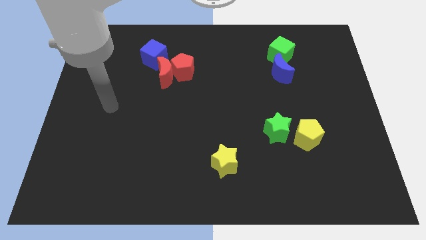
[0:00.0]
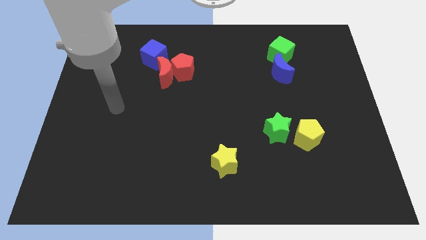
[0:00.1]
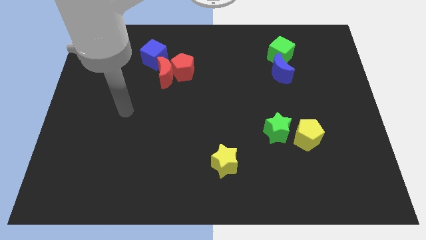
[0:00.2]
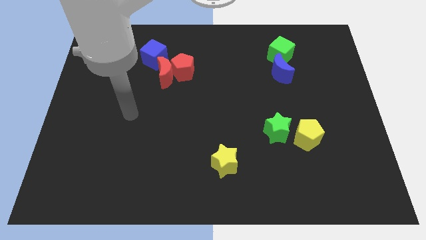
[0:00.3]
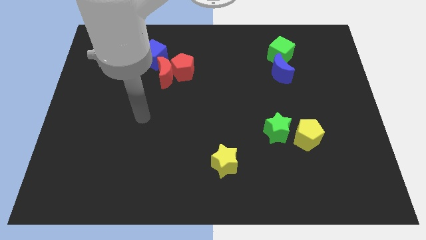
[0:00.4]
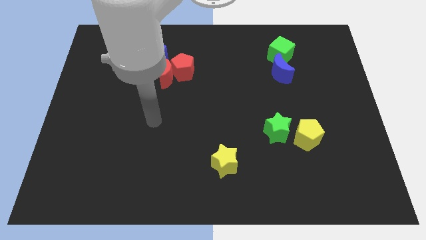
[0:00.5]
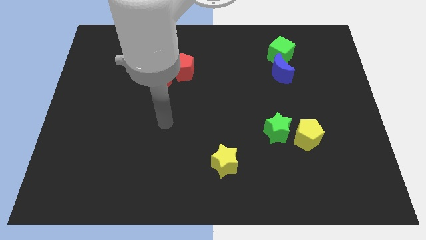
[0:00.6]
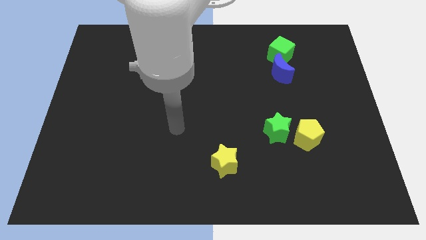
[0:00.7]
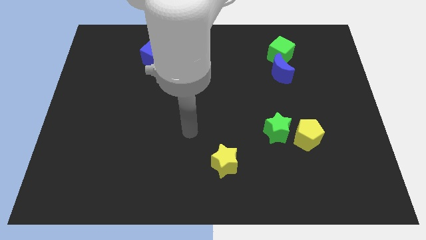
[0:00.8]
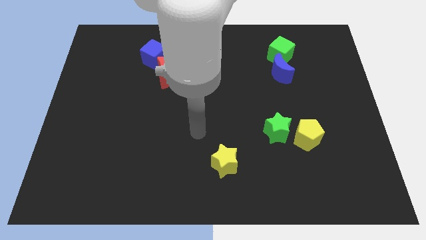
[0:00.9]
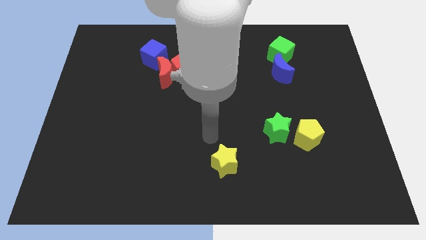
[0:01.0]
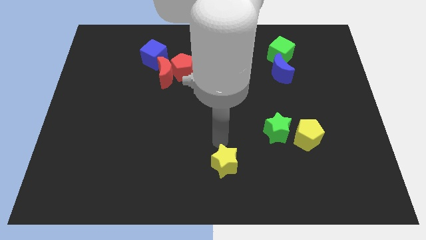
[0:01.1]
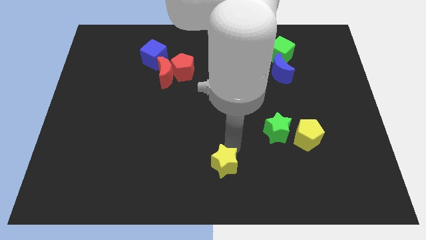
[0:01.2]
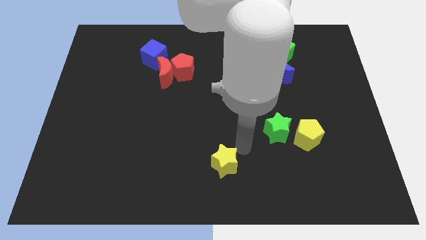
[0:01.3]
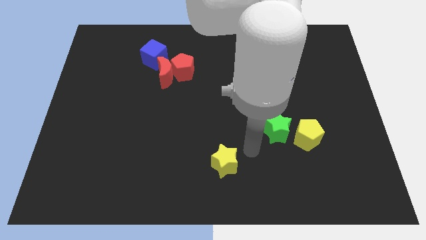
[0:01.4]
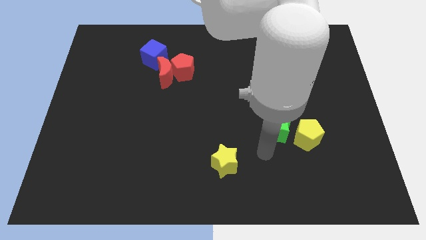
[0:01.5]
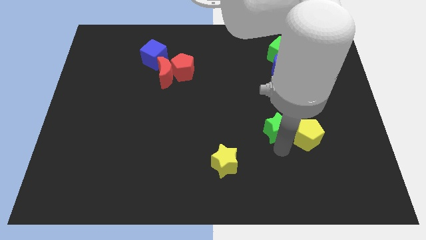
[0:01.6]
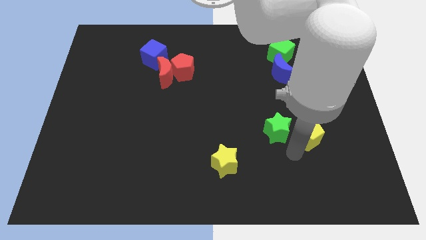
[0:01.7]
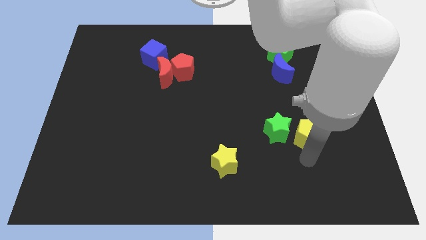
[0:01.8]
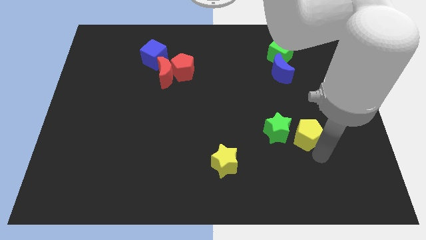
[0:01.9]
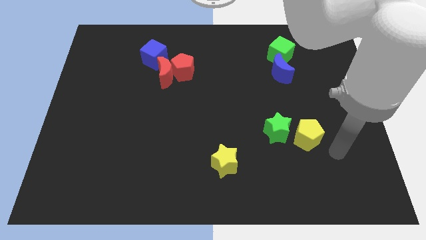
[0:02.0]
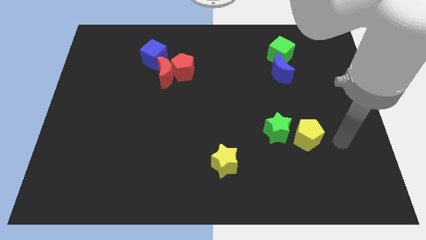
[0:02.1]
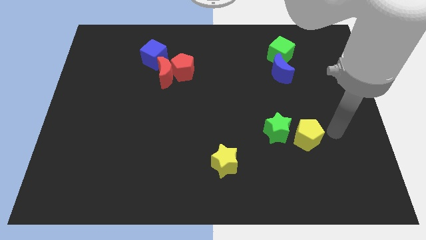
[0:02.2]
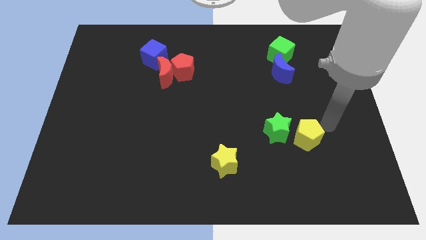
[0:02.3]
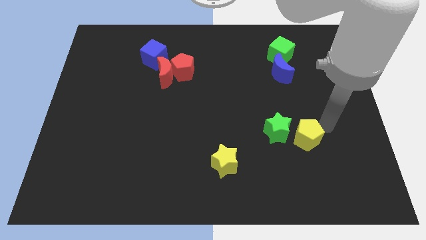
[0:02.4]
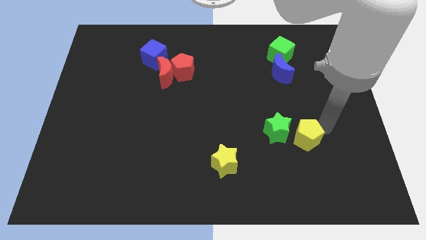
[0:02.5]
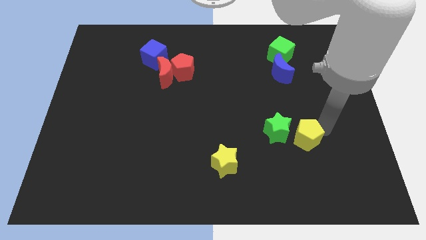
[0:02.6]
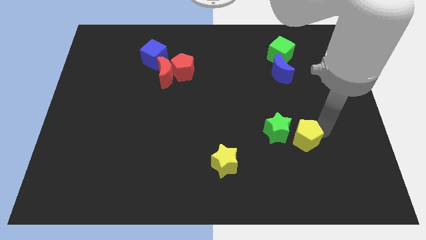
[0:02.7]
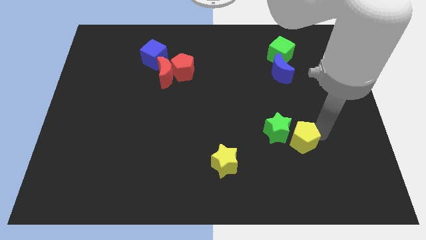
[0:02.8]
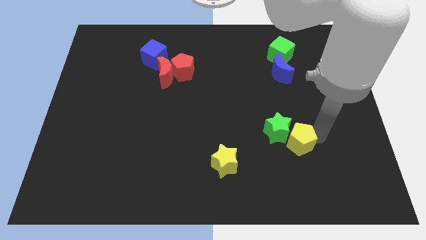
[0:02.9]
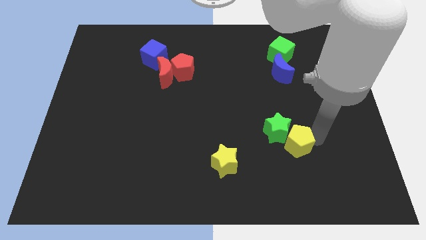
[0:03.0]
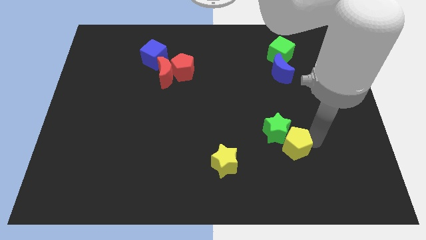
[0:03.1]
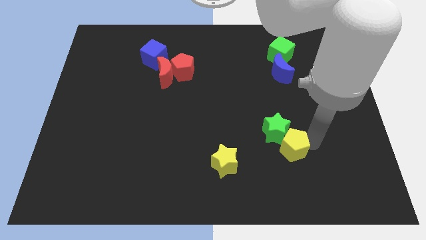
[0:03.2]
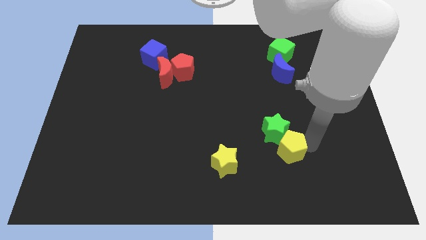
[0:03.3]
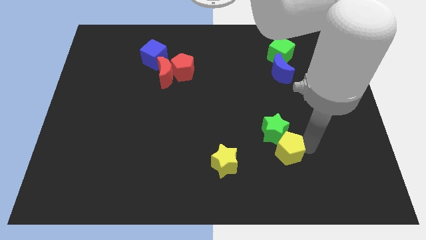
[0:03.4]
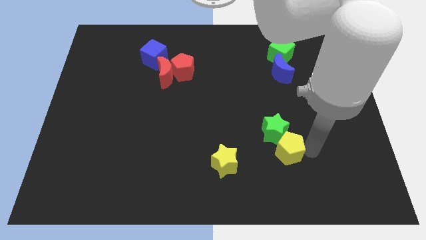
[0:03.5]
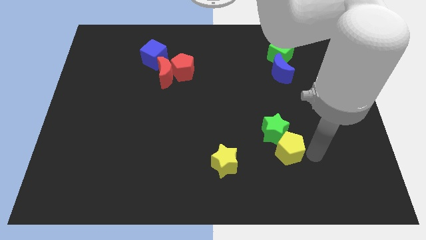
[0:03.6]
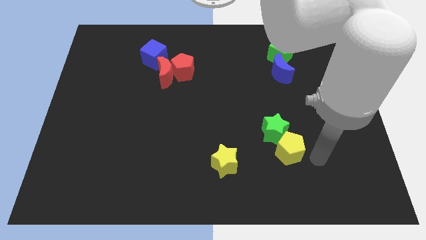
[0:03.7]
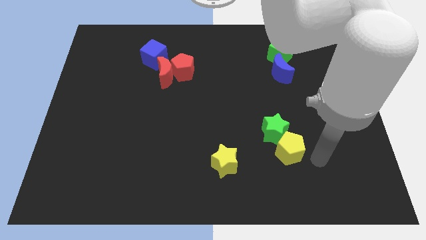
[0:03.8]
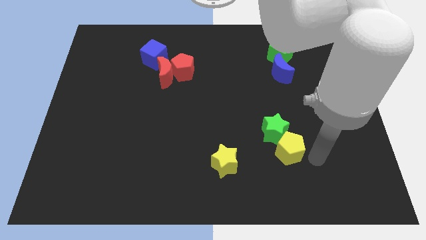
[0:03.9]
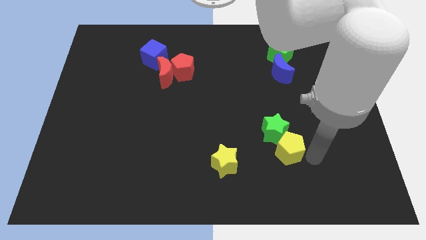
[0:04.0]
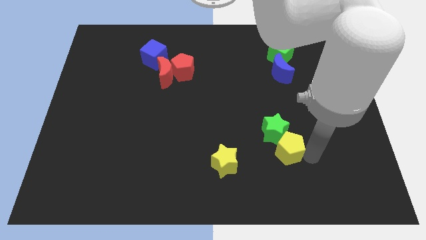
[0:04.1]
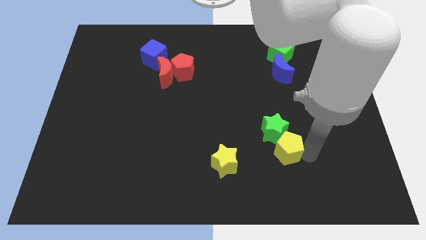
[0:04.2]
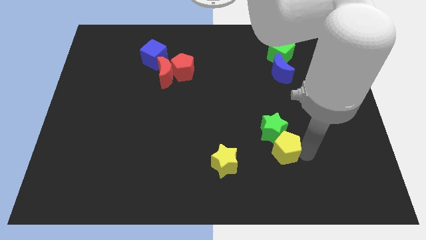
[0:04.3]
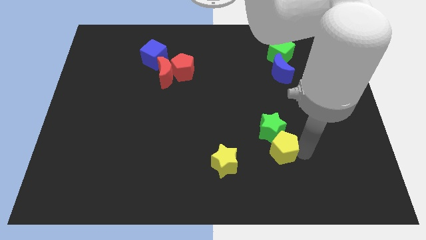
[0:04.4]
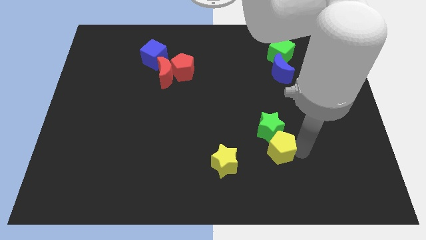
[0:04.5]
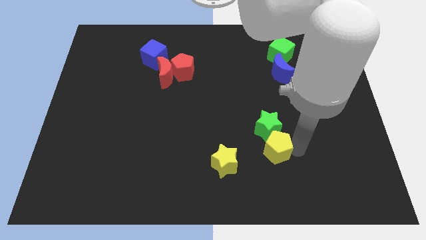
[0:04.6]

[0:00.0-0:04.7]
slide the yellow pentagon somewhat left

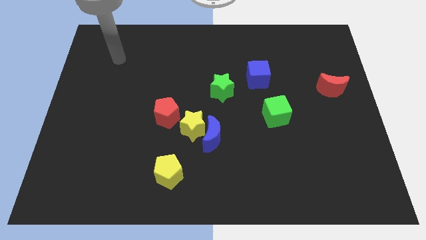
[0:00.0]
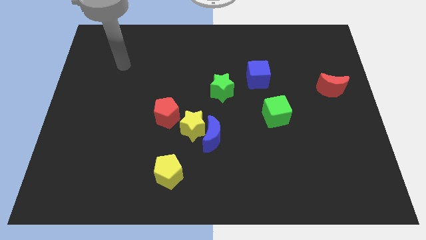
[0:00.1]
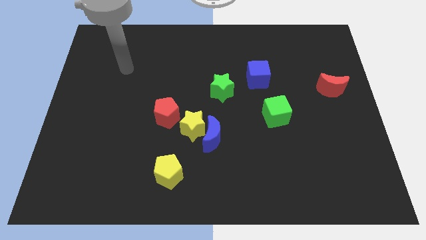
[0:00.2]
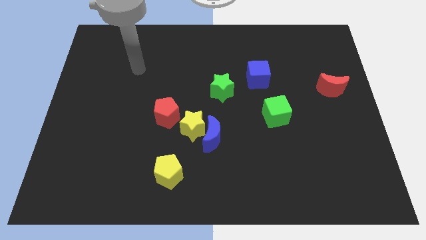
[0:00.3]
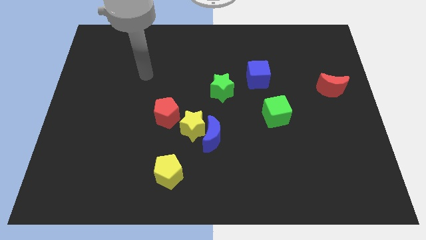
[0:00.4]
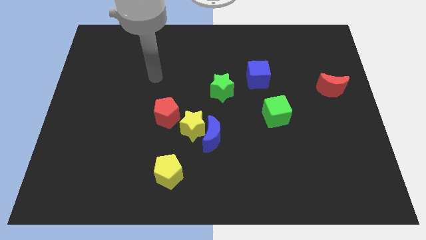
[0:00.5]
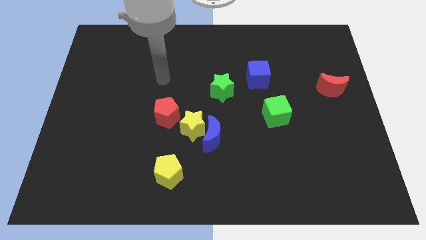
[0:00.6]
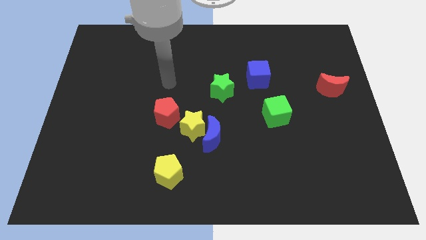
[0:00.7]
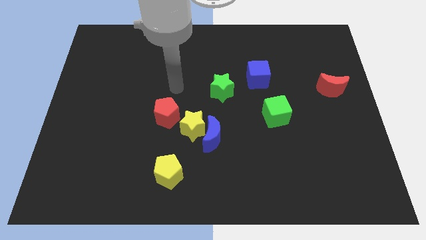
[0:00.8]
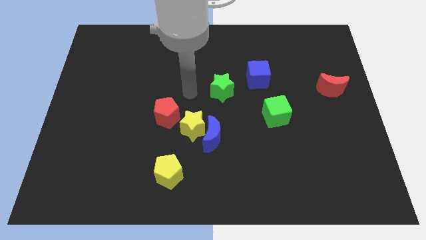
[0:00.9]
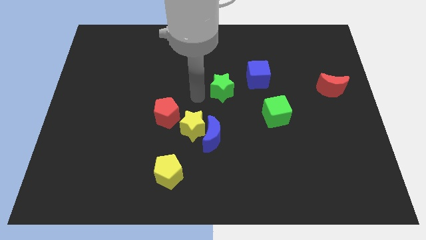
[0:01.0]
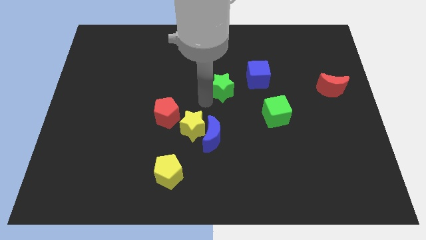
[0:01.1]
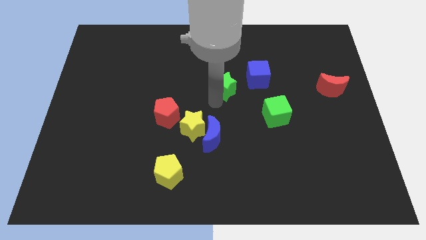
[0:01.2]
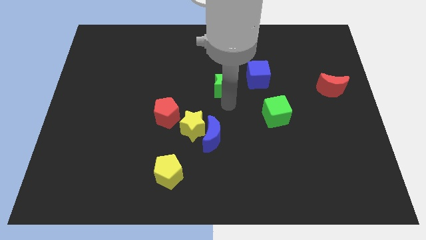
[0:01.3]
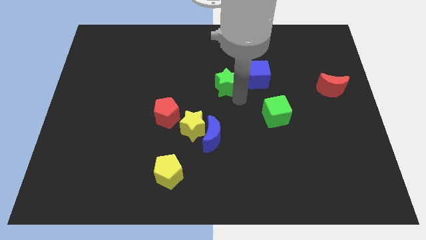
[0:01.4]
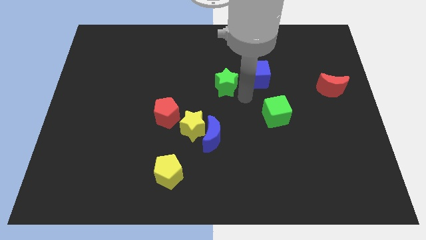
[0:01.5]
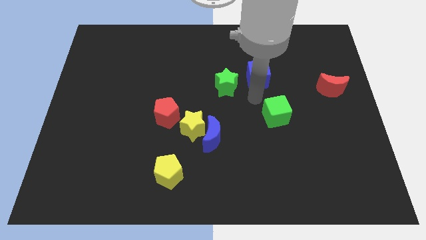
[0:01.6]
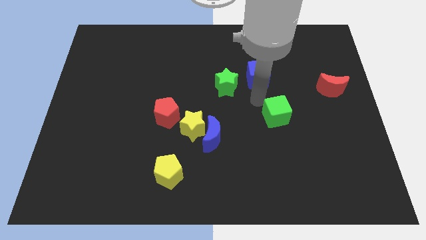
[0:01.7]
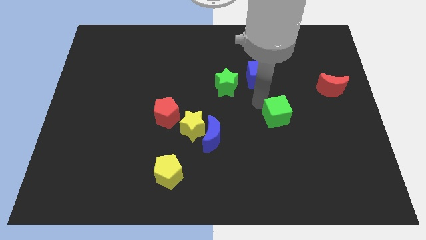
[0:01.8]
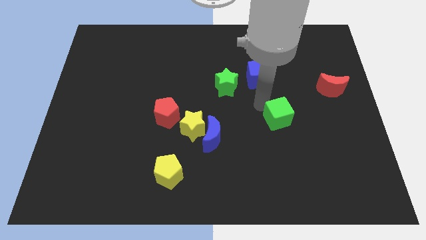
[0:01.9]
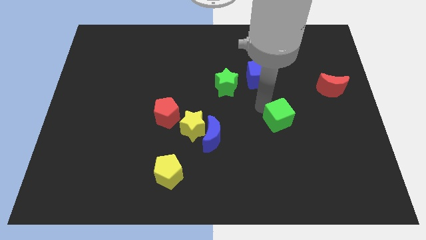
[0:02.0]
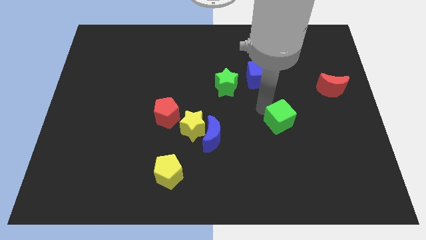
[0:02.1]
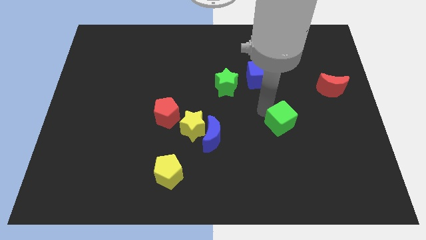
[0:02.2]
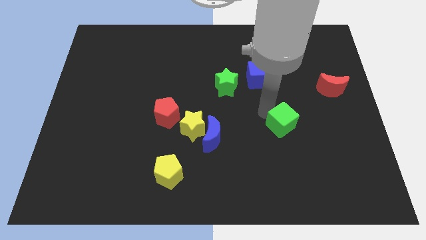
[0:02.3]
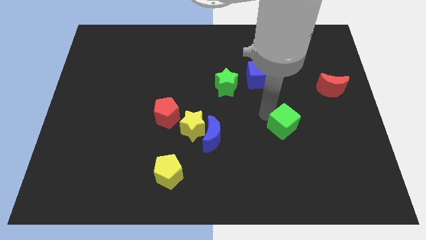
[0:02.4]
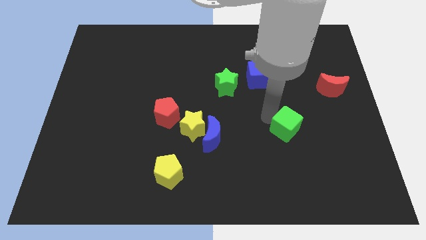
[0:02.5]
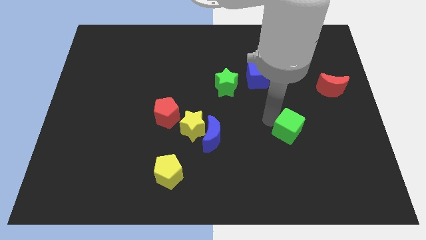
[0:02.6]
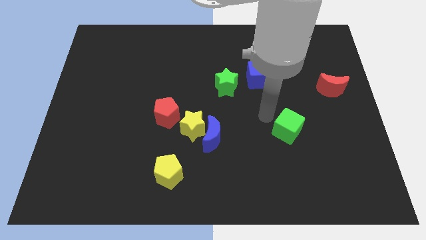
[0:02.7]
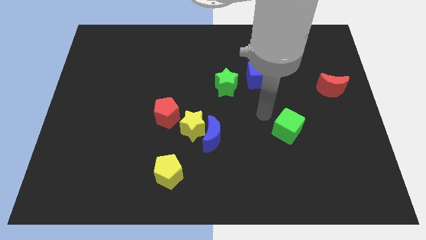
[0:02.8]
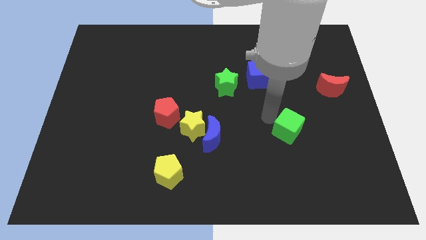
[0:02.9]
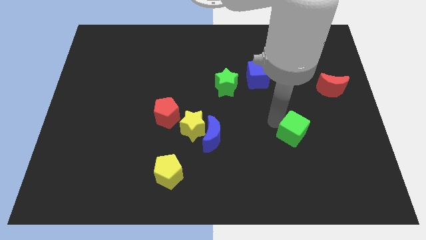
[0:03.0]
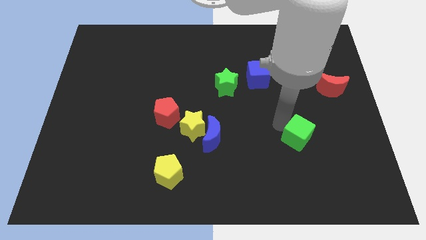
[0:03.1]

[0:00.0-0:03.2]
slightly move the green cube down and right diagonally

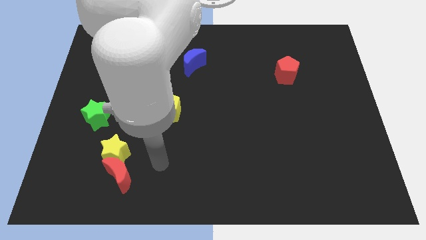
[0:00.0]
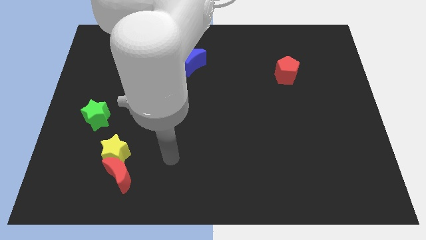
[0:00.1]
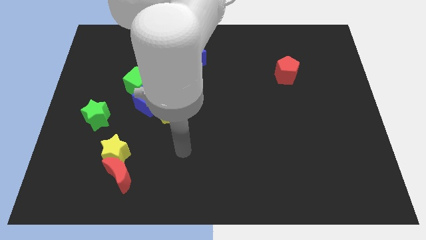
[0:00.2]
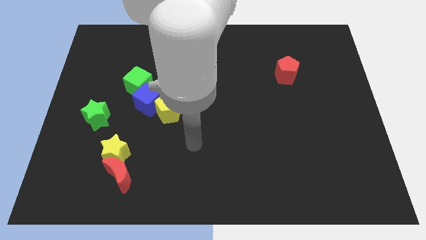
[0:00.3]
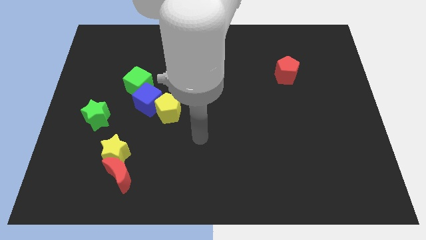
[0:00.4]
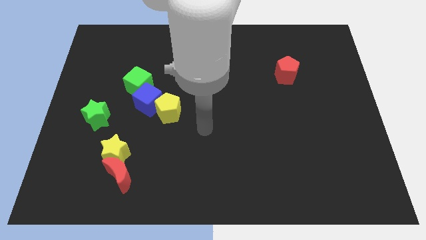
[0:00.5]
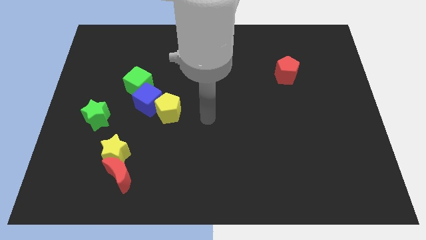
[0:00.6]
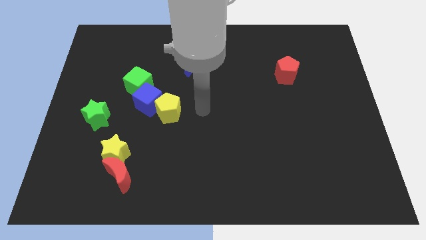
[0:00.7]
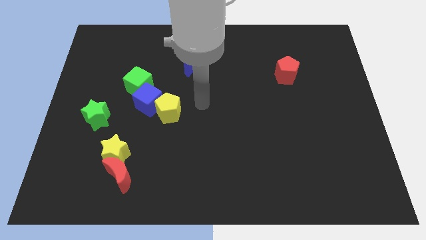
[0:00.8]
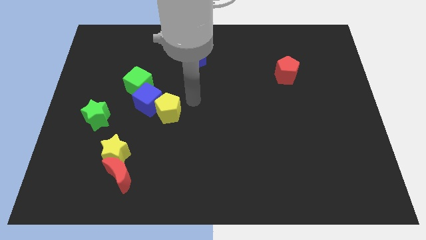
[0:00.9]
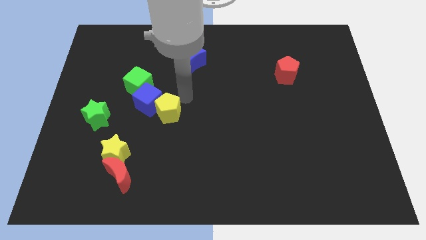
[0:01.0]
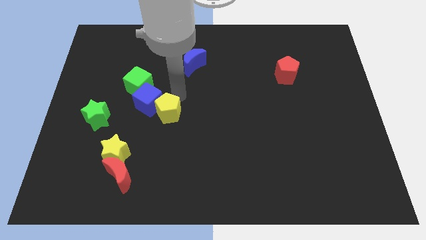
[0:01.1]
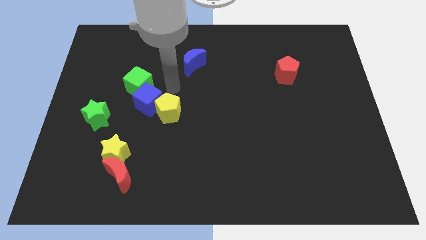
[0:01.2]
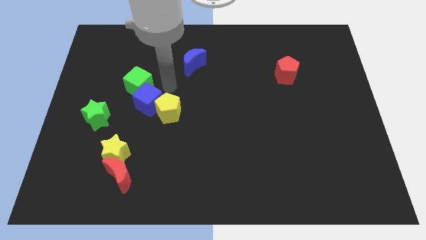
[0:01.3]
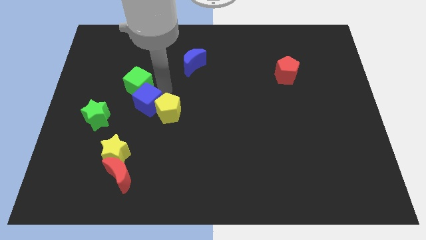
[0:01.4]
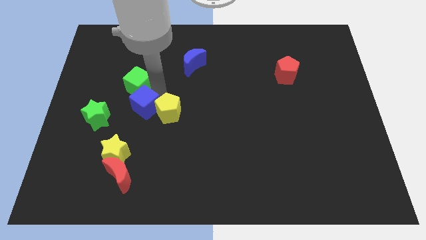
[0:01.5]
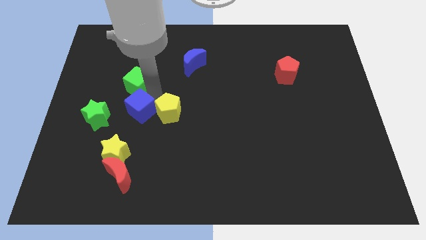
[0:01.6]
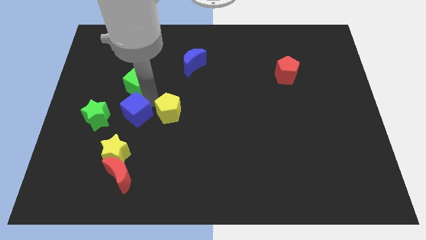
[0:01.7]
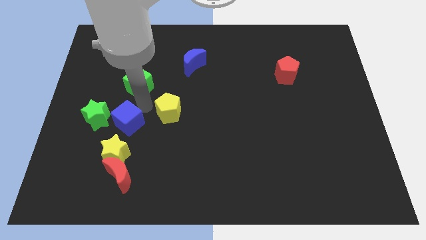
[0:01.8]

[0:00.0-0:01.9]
slightly push the blue cube down and then to the left
